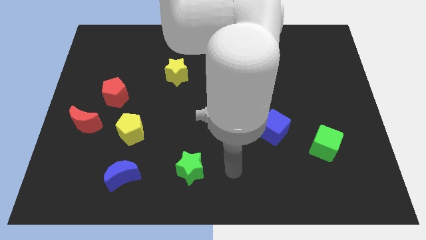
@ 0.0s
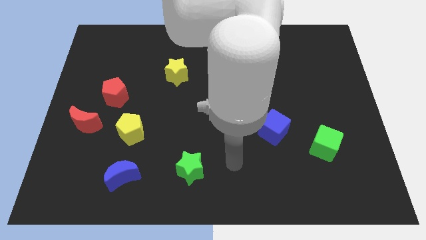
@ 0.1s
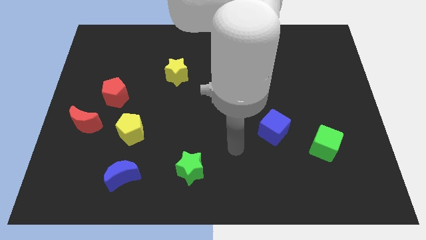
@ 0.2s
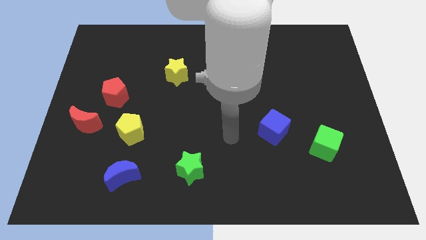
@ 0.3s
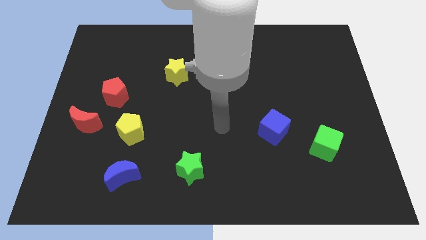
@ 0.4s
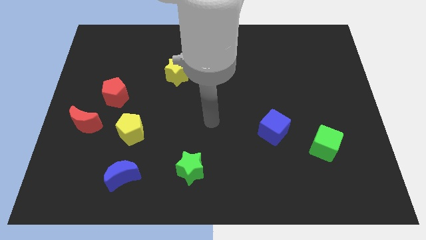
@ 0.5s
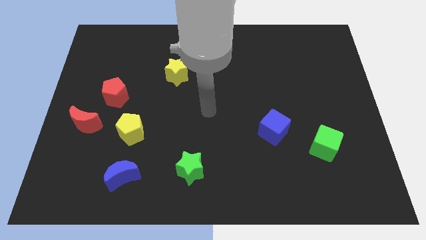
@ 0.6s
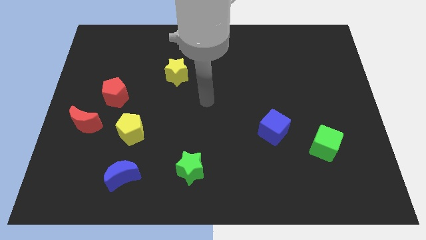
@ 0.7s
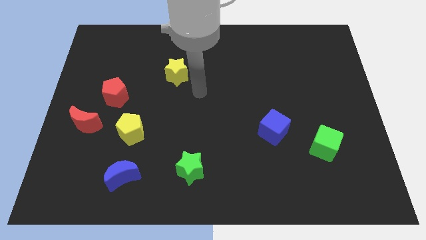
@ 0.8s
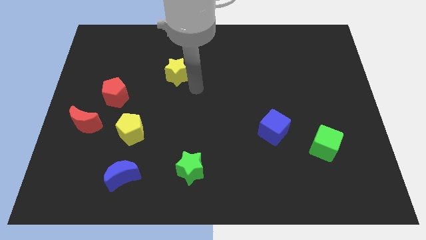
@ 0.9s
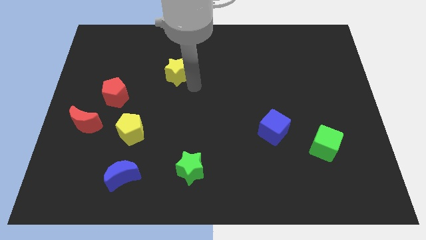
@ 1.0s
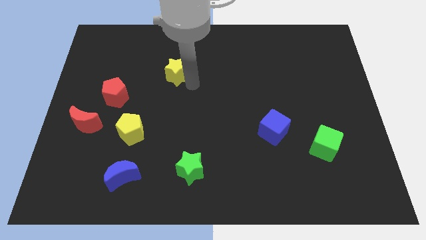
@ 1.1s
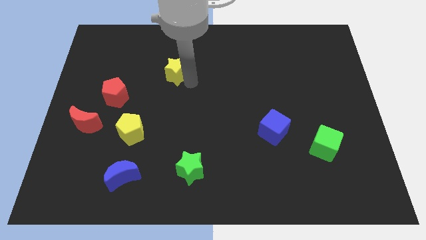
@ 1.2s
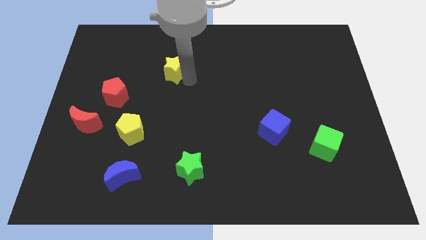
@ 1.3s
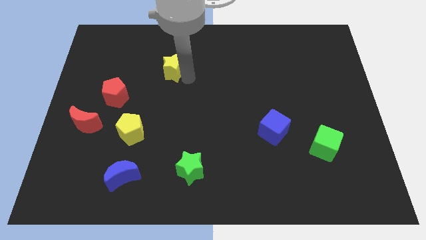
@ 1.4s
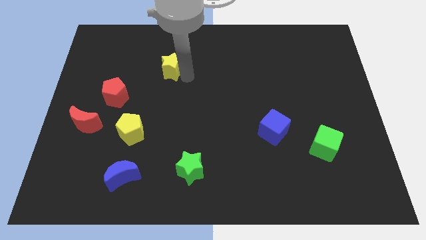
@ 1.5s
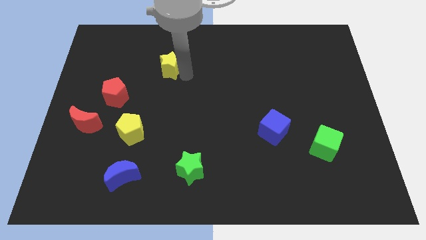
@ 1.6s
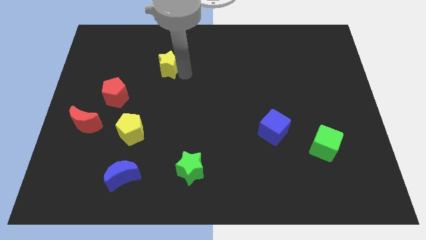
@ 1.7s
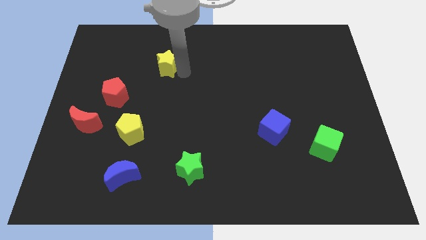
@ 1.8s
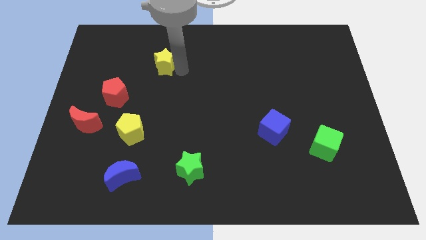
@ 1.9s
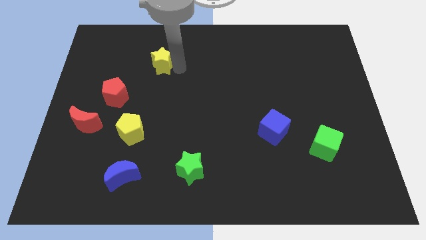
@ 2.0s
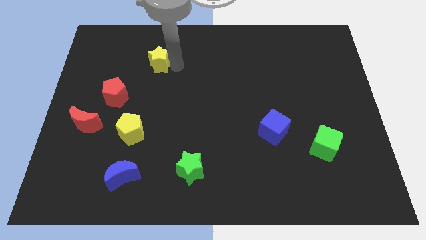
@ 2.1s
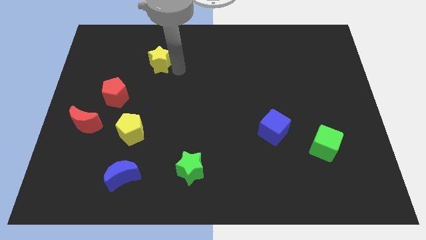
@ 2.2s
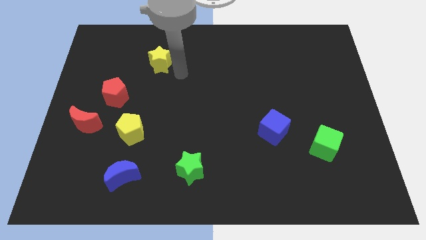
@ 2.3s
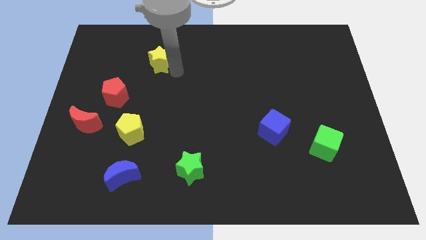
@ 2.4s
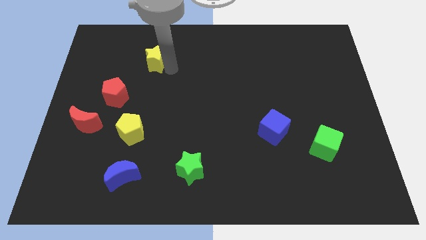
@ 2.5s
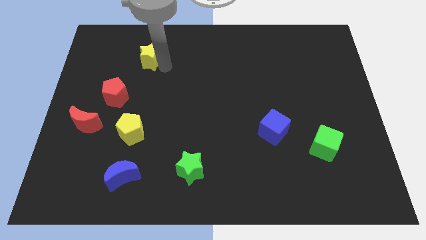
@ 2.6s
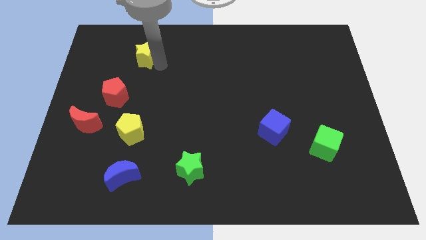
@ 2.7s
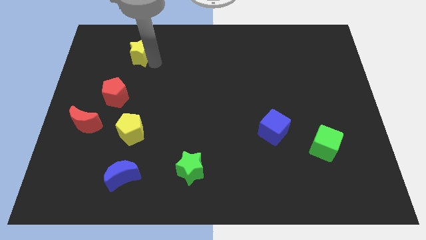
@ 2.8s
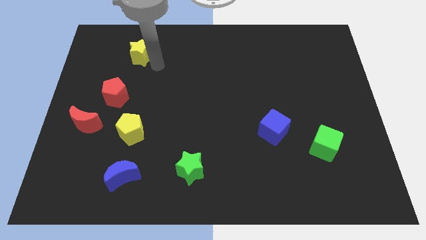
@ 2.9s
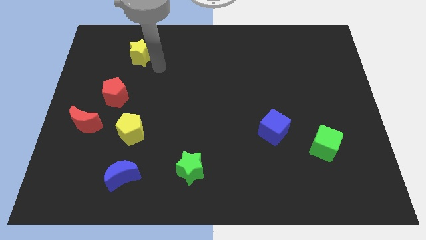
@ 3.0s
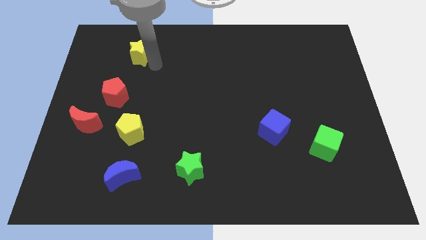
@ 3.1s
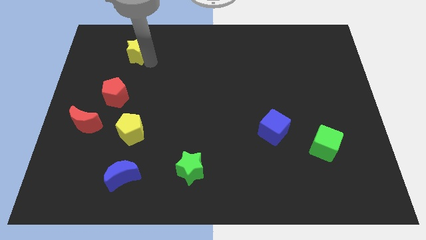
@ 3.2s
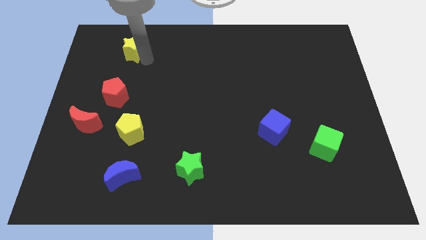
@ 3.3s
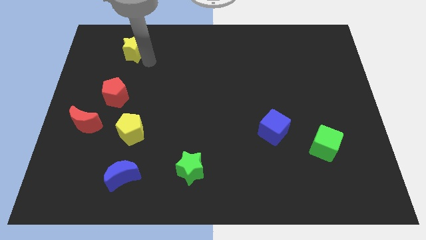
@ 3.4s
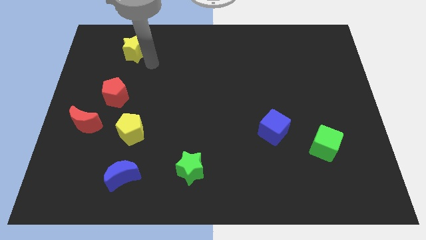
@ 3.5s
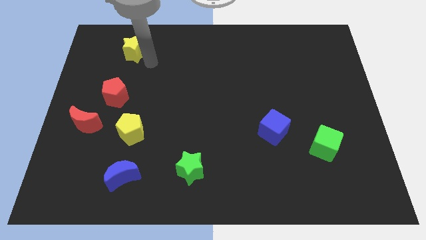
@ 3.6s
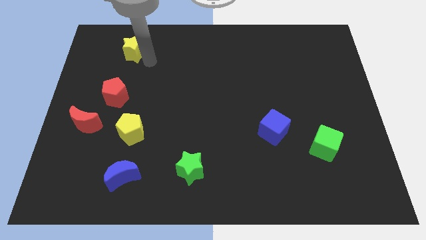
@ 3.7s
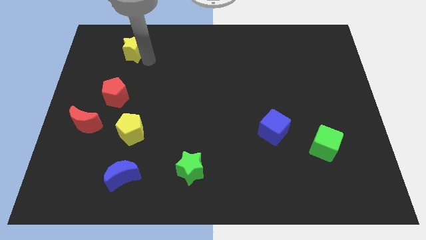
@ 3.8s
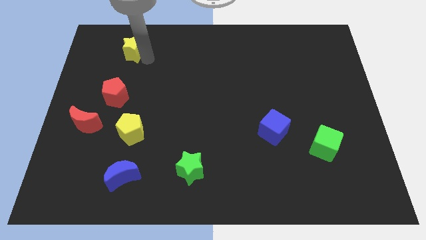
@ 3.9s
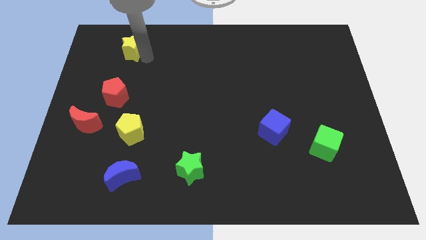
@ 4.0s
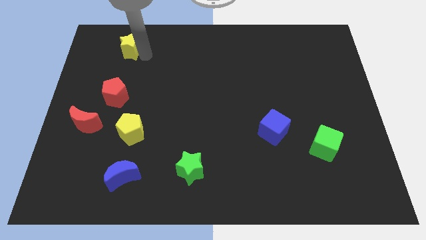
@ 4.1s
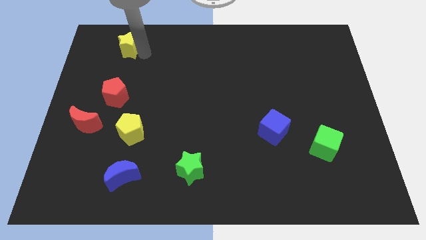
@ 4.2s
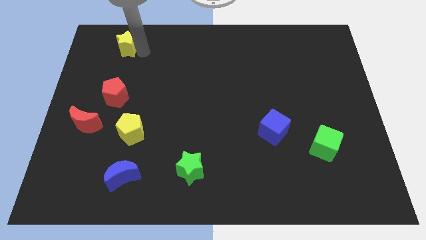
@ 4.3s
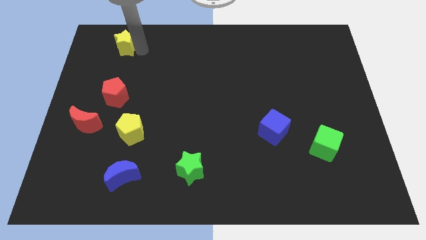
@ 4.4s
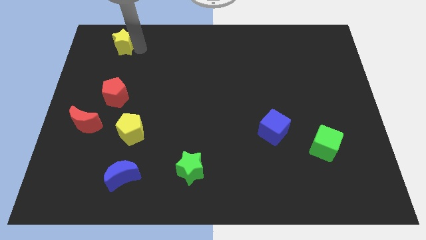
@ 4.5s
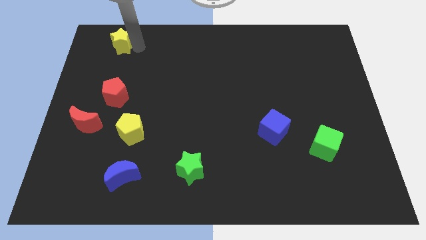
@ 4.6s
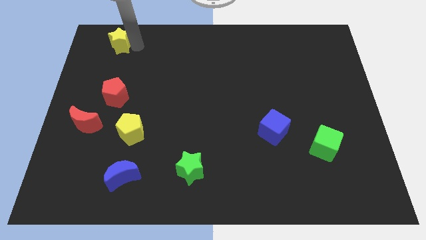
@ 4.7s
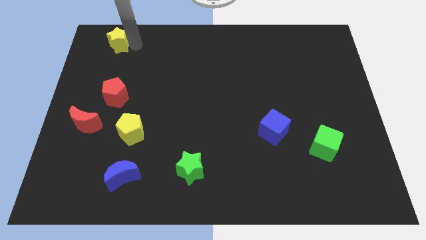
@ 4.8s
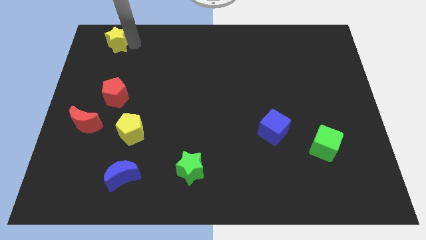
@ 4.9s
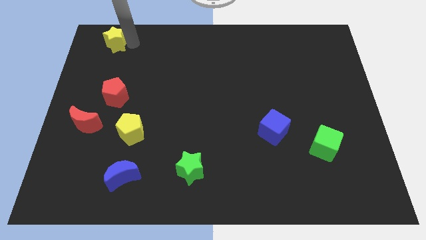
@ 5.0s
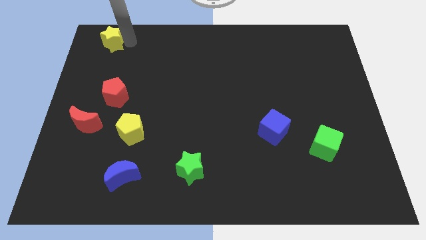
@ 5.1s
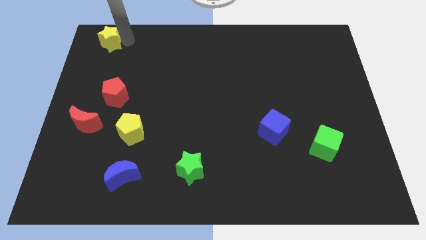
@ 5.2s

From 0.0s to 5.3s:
slide the yellow star to the top left of the board

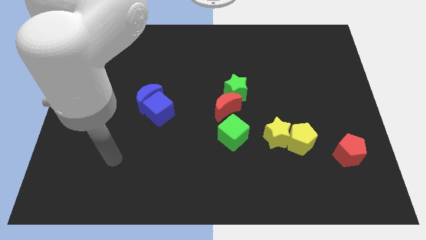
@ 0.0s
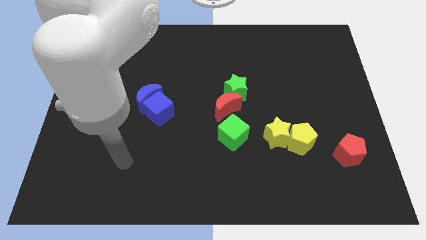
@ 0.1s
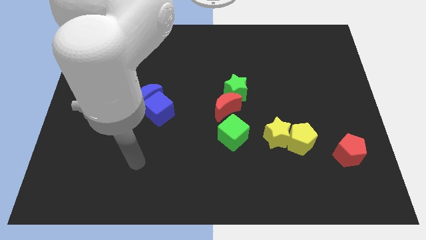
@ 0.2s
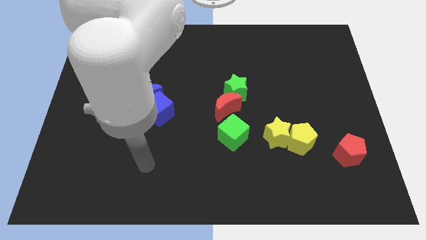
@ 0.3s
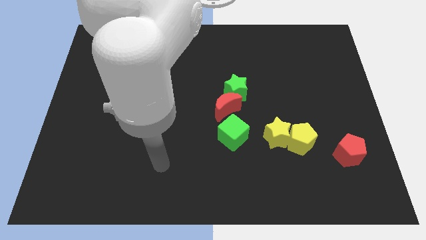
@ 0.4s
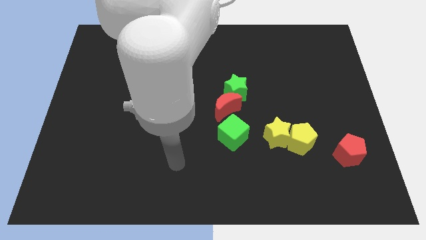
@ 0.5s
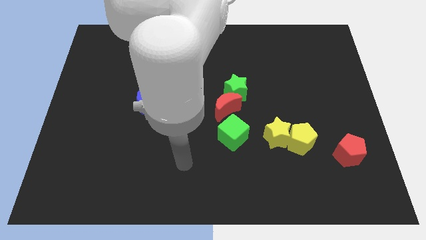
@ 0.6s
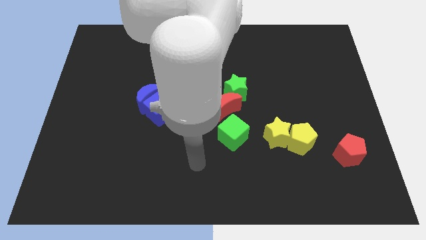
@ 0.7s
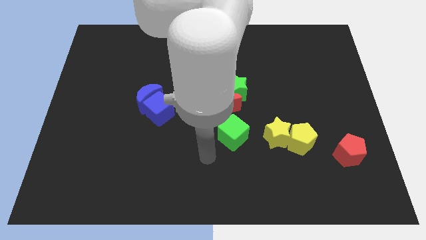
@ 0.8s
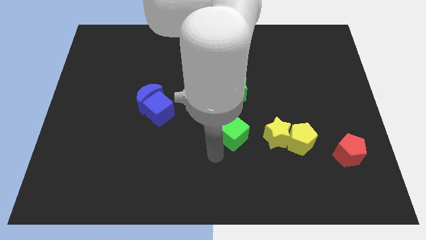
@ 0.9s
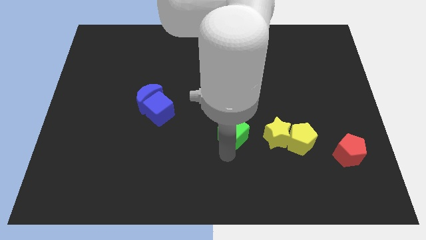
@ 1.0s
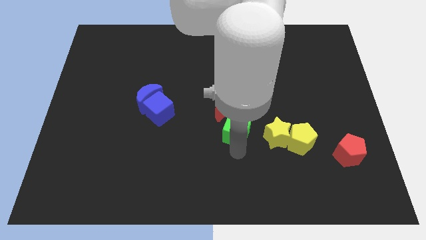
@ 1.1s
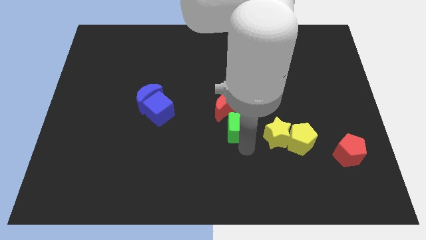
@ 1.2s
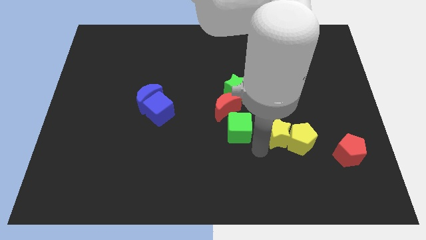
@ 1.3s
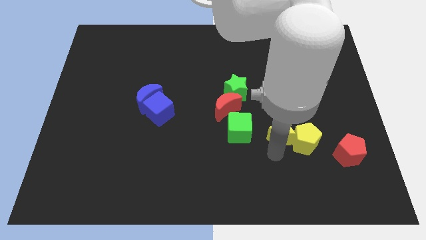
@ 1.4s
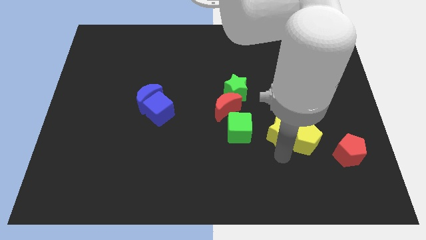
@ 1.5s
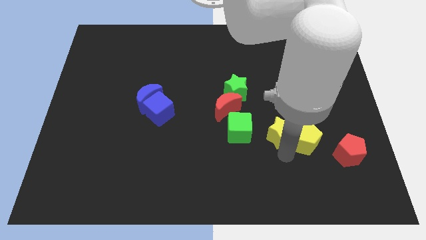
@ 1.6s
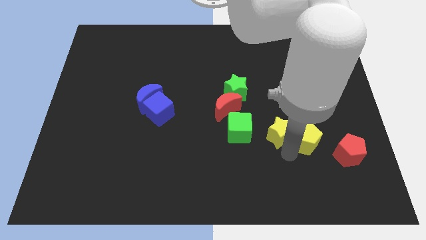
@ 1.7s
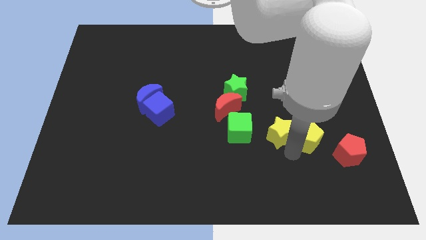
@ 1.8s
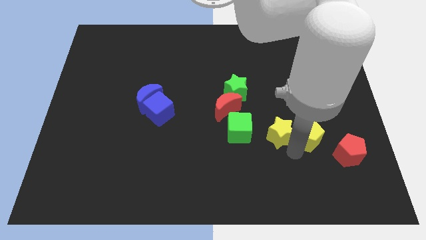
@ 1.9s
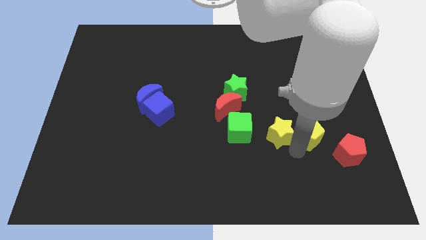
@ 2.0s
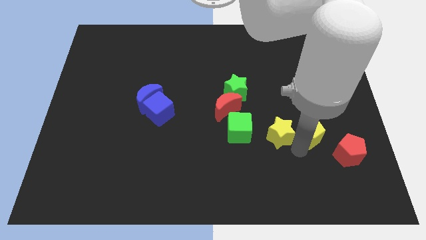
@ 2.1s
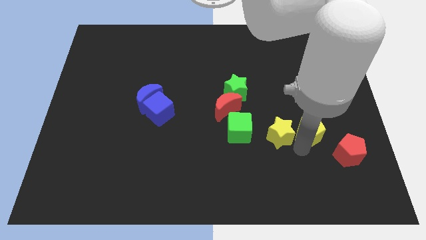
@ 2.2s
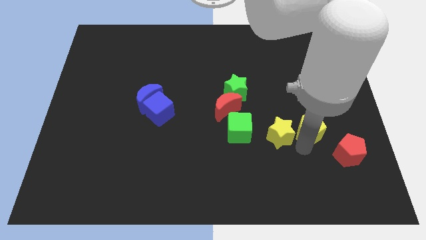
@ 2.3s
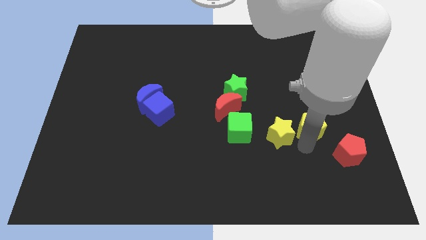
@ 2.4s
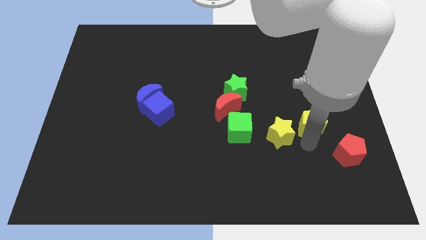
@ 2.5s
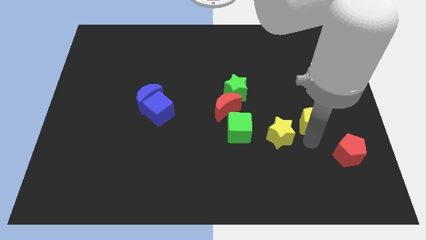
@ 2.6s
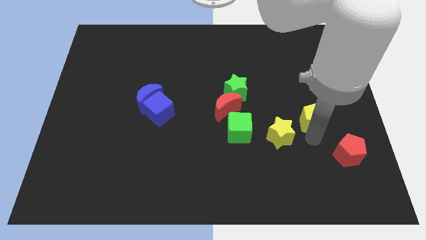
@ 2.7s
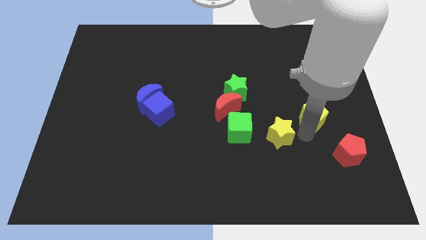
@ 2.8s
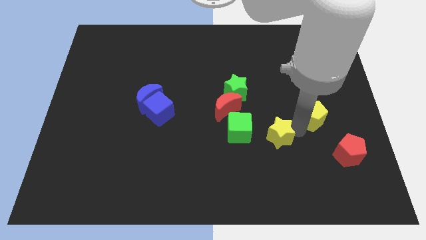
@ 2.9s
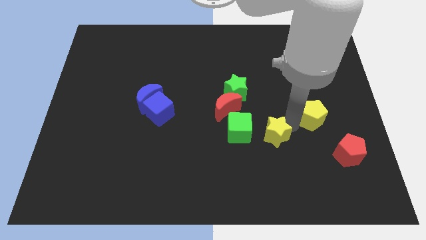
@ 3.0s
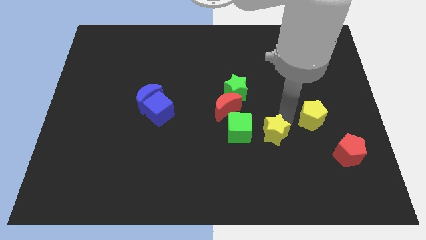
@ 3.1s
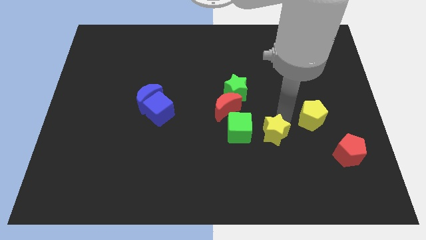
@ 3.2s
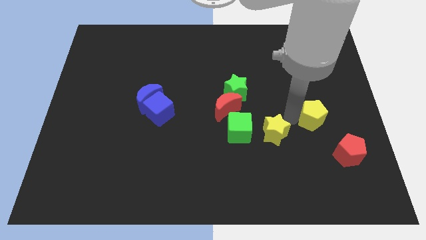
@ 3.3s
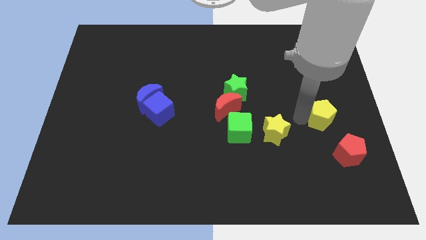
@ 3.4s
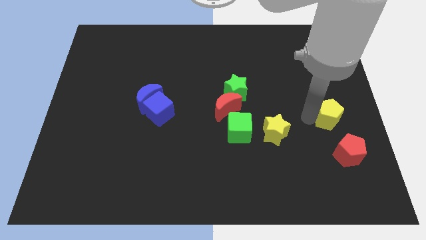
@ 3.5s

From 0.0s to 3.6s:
slide the yellow pentagon to the center right
